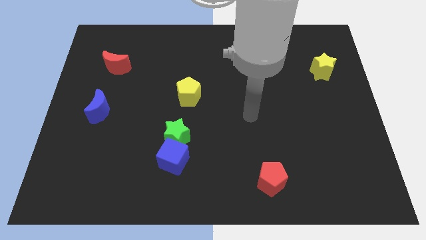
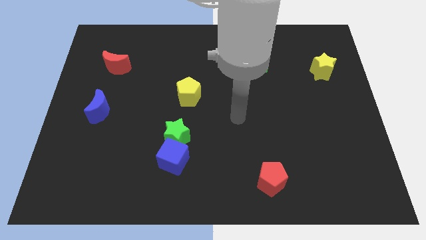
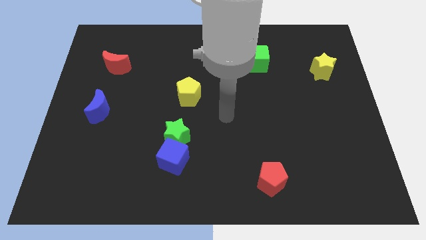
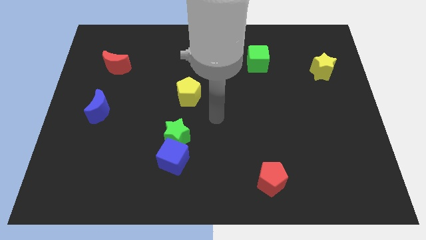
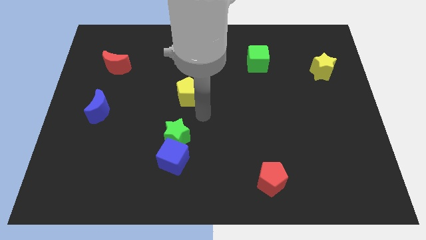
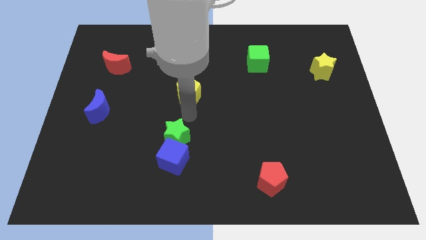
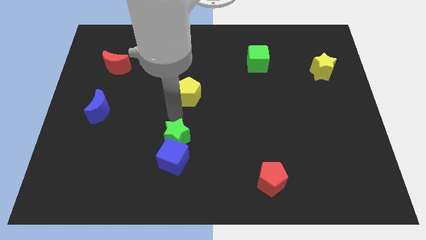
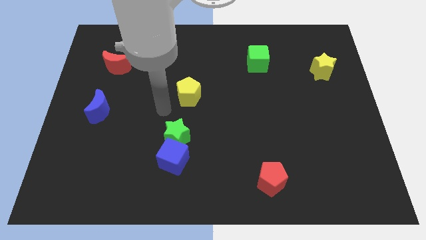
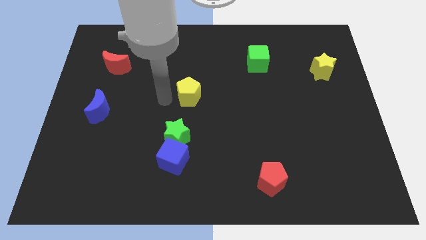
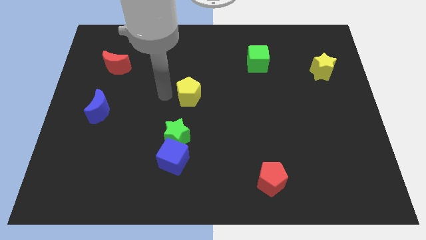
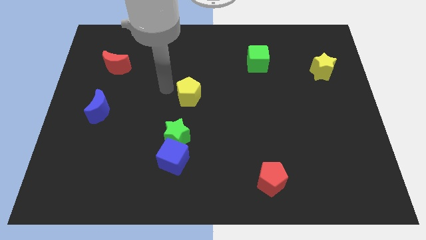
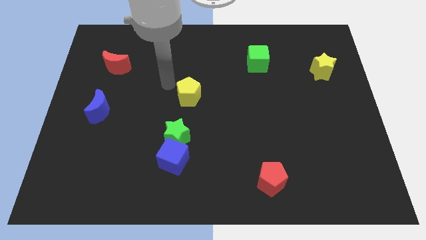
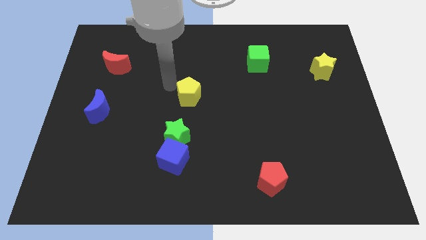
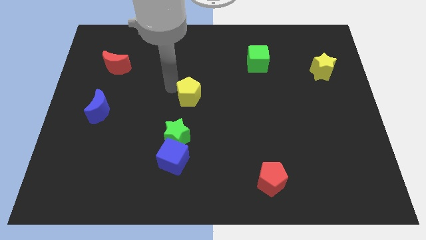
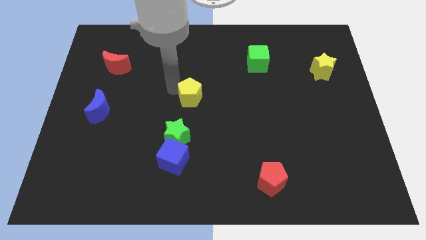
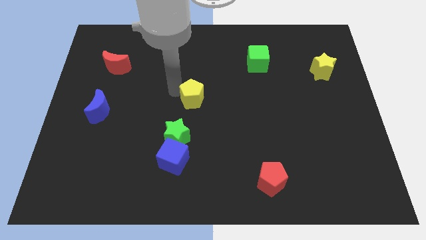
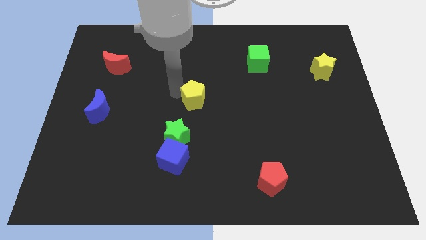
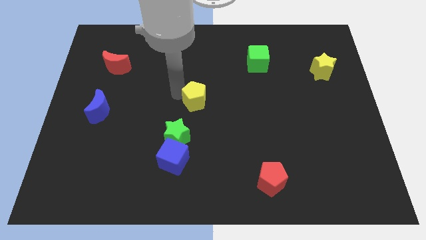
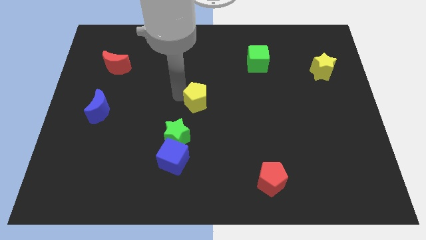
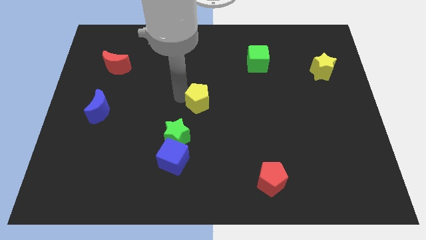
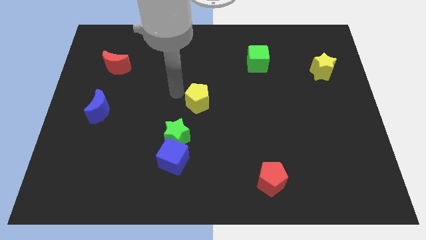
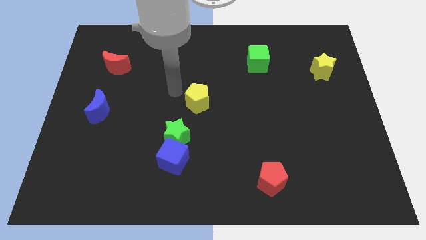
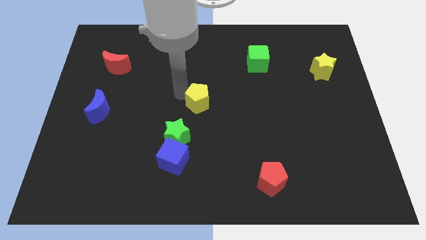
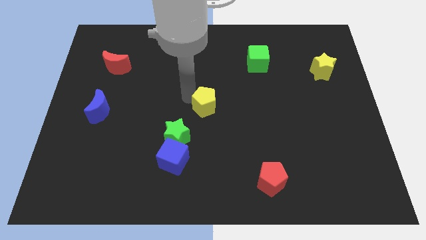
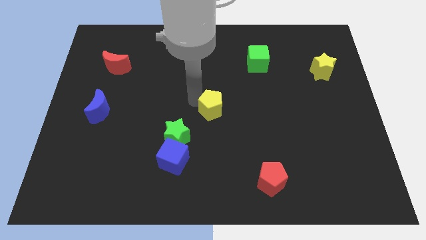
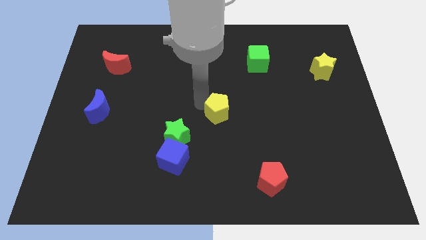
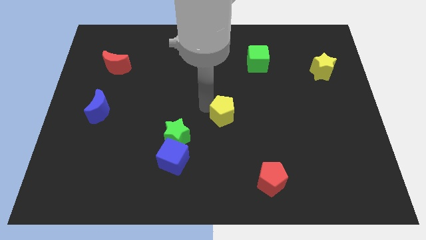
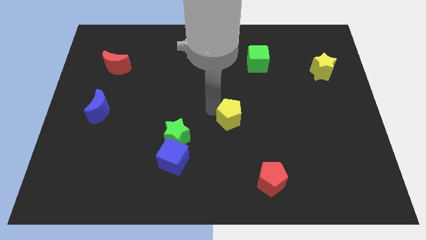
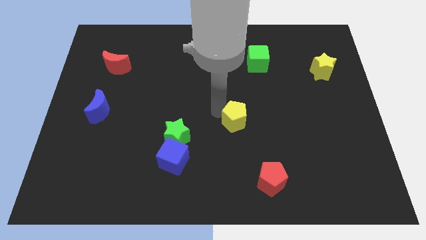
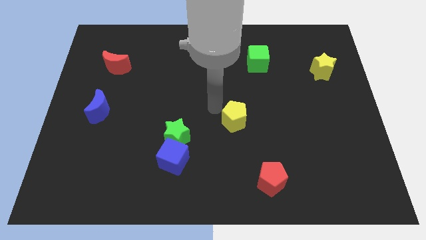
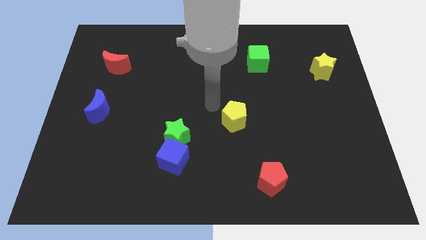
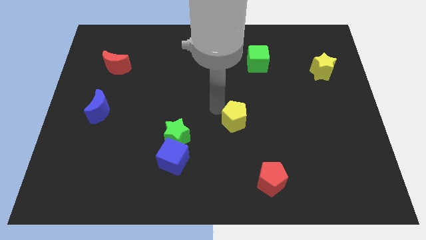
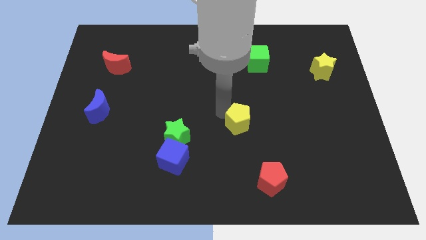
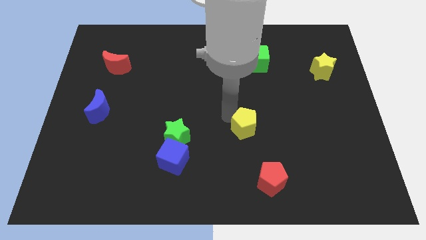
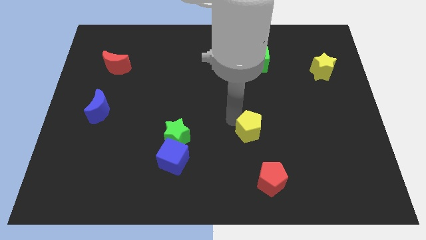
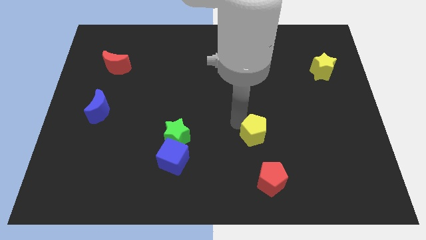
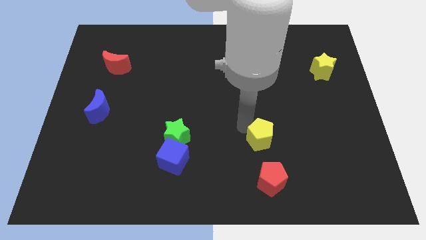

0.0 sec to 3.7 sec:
move the yellow pentagon down and to the right diagonally

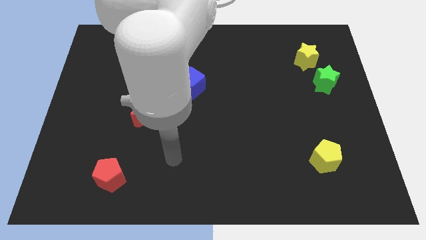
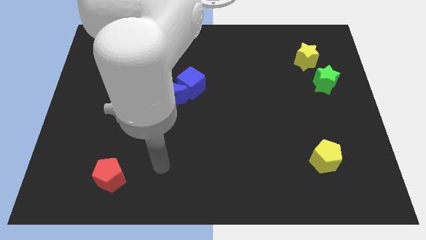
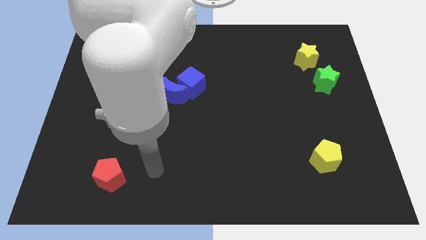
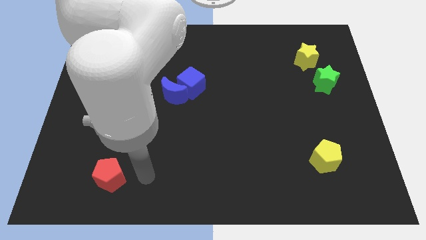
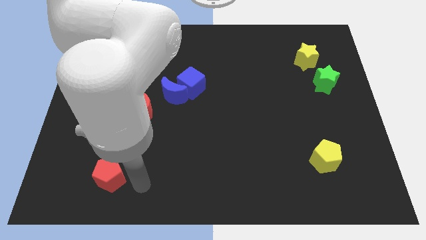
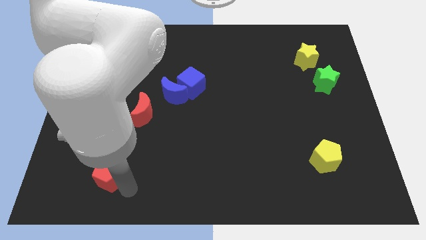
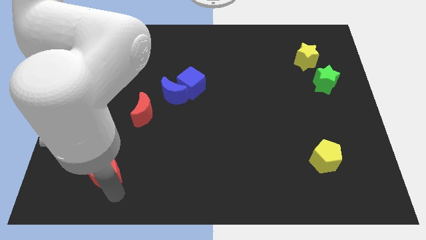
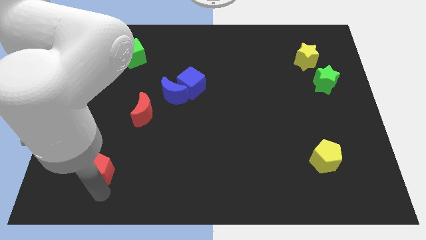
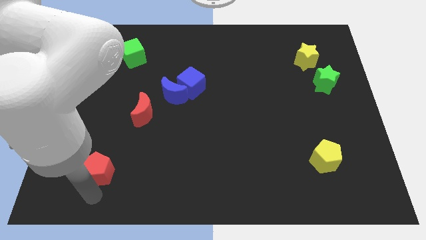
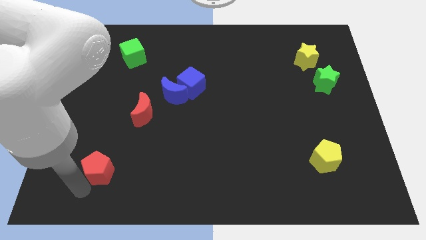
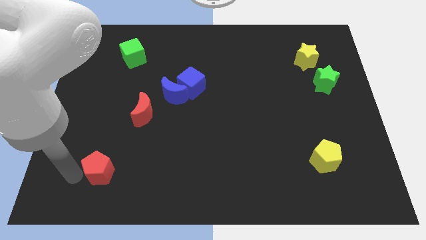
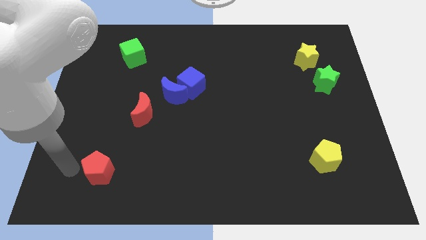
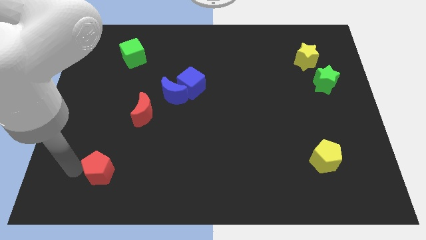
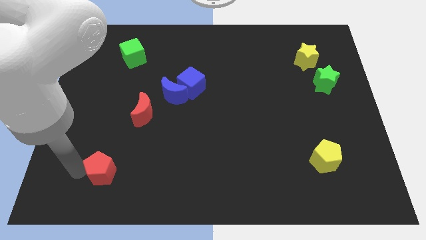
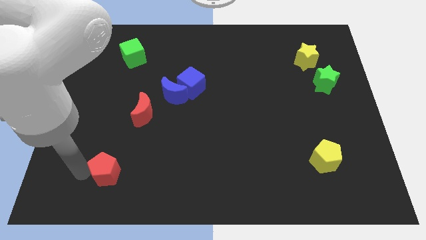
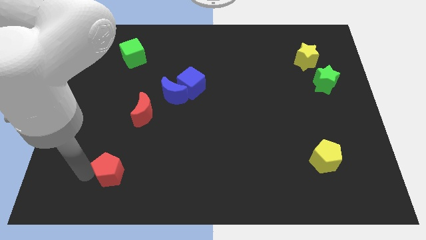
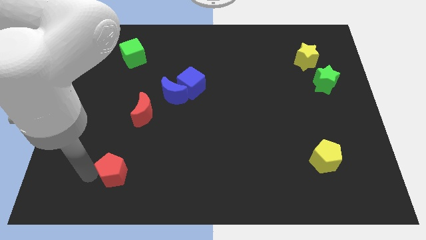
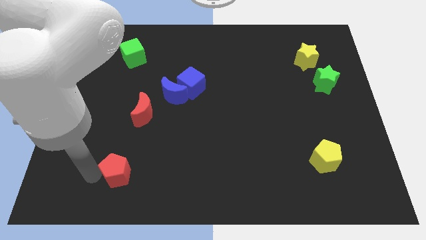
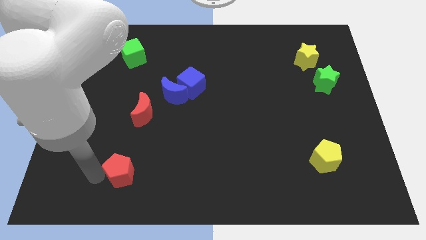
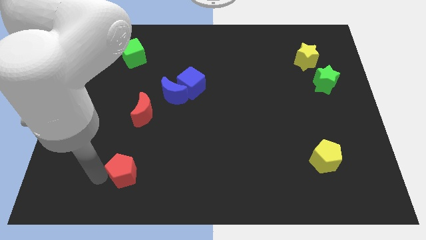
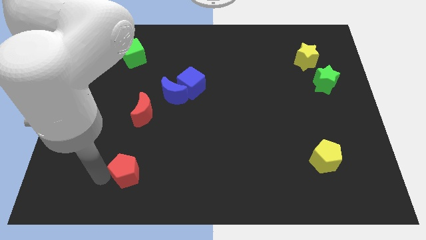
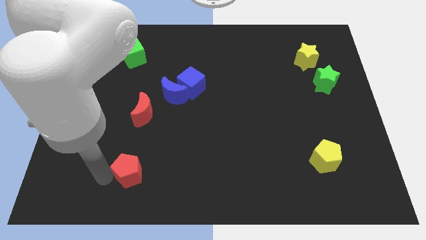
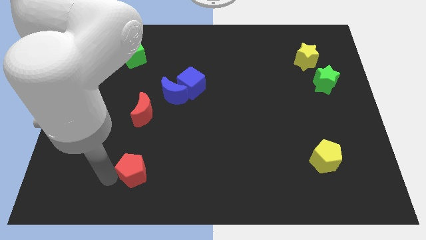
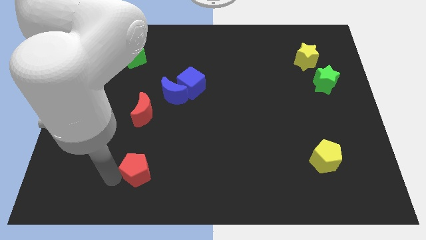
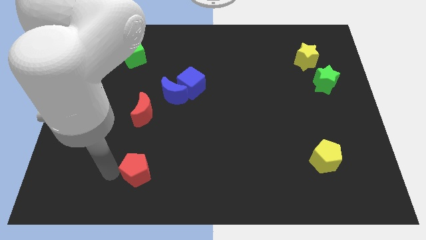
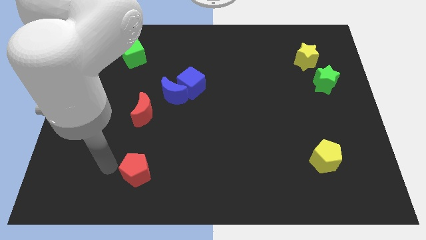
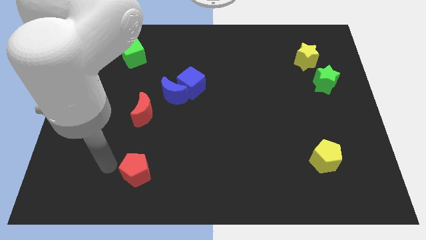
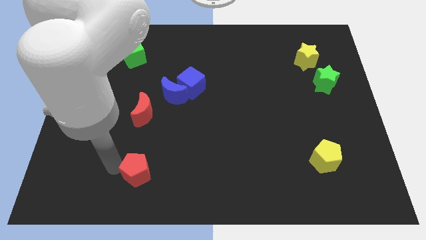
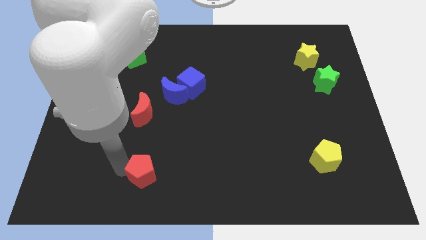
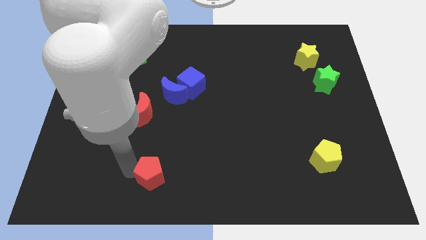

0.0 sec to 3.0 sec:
slightly push the red pentagon right

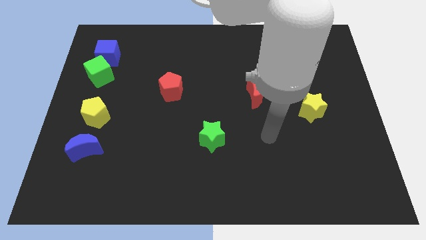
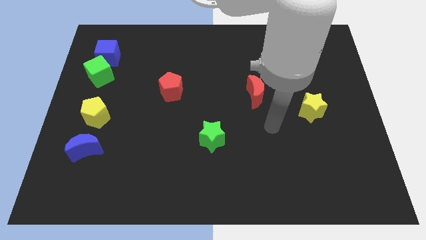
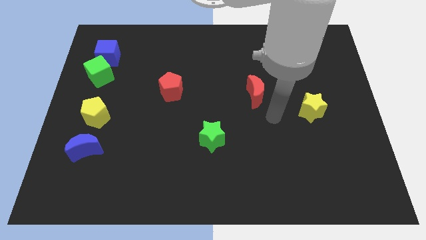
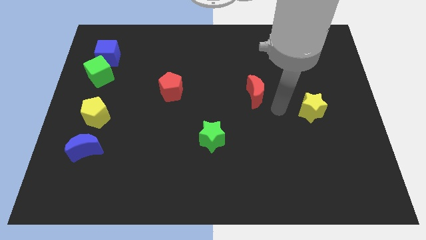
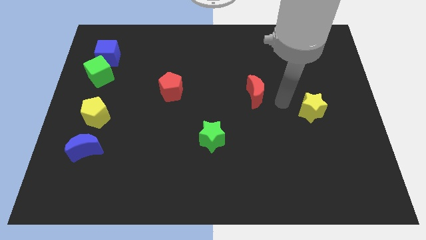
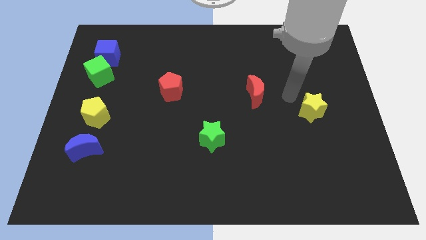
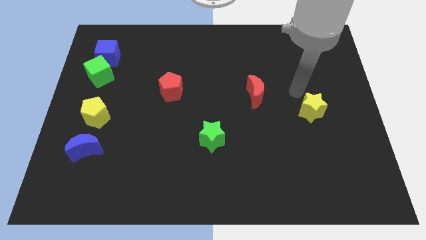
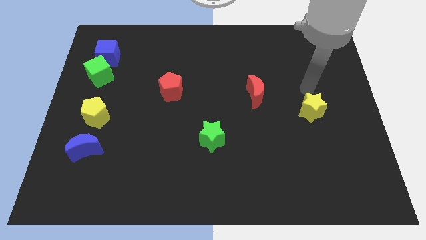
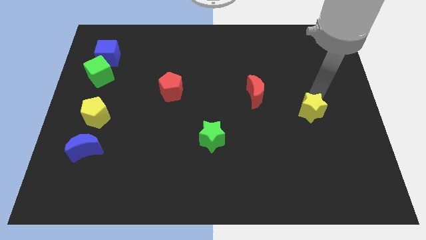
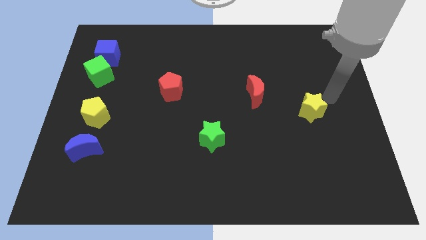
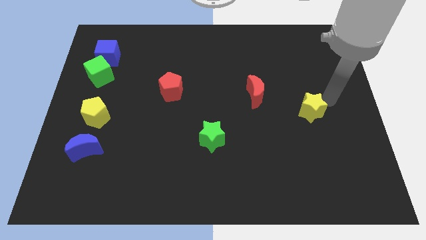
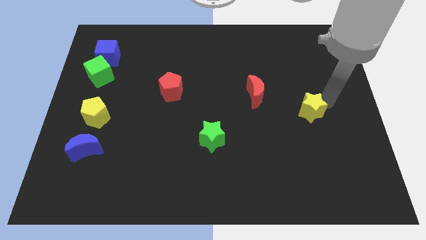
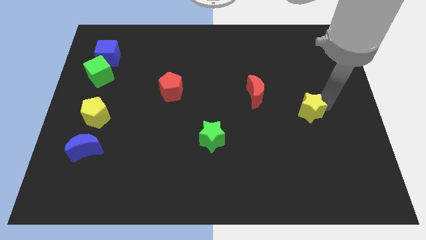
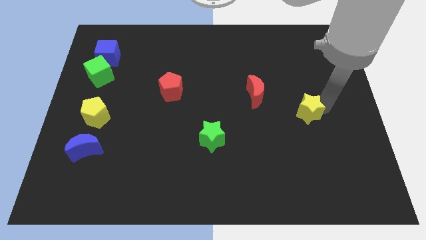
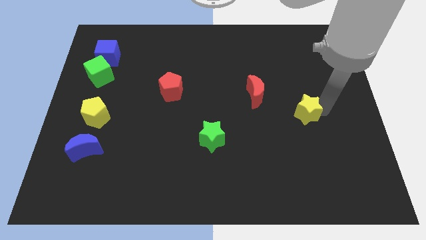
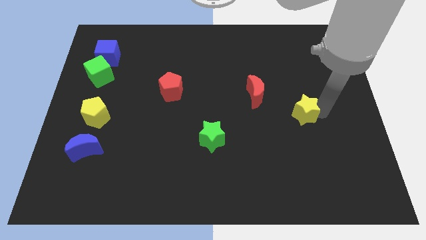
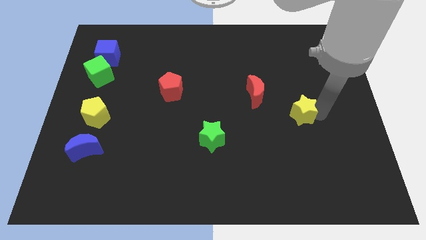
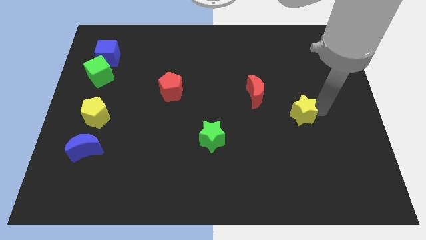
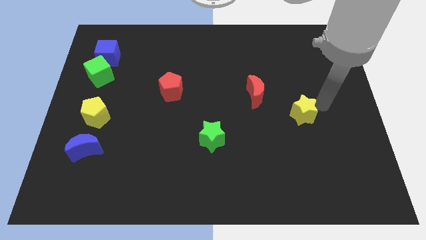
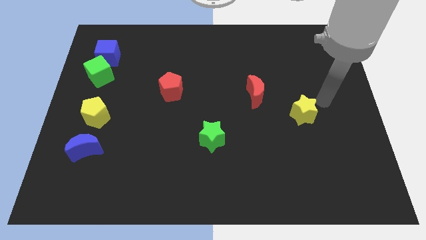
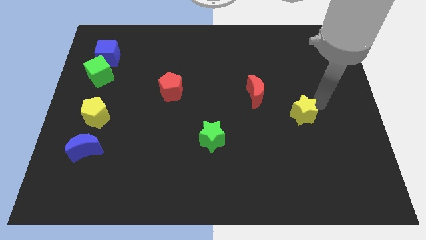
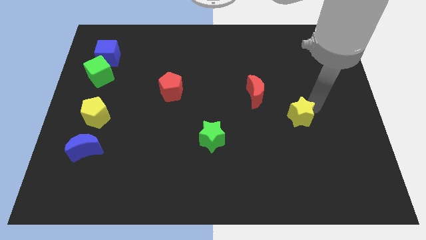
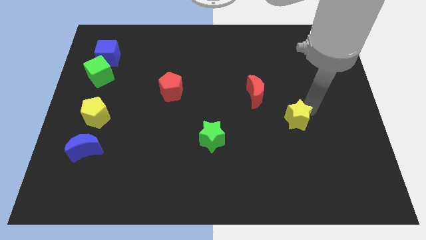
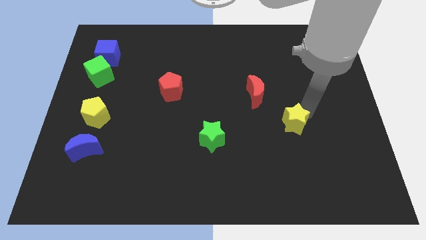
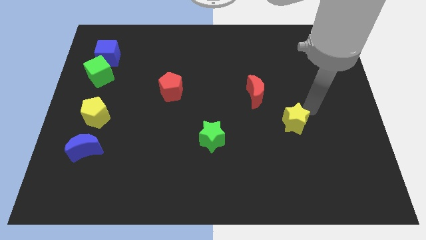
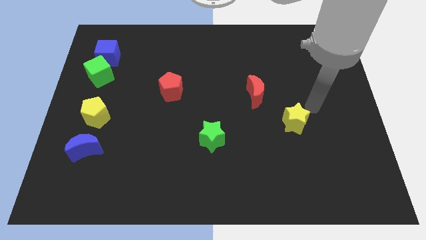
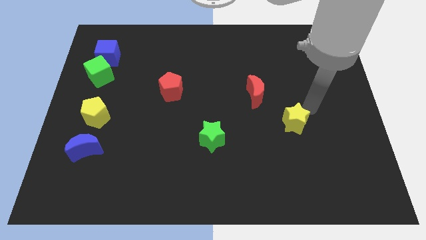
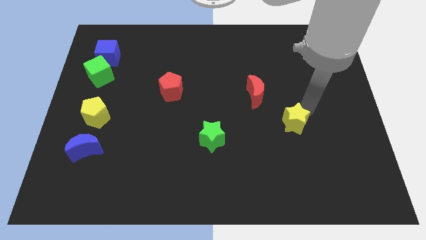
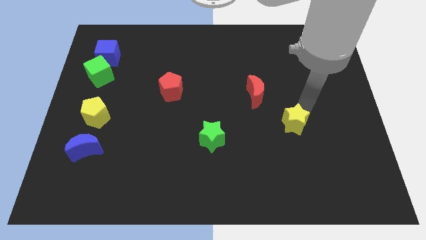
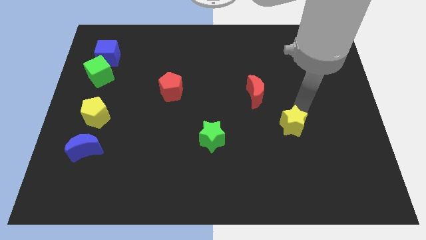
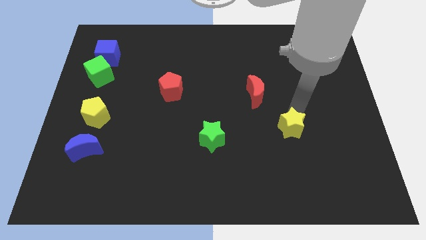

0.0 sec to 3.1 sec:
move the yellow star somewhat diagonally downwards and to the left
